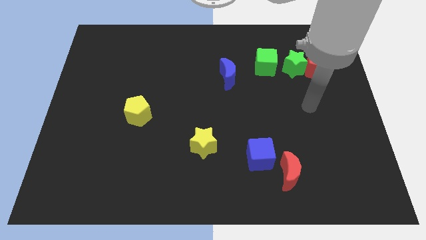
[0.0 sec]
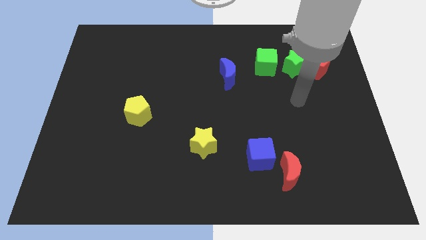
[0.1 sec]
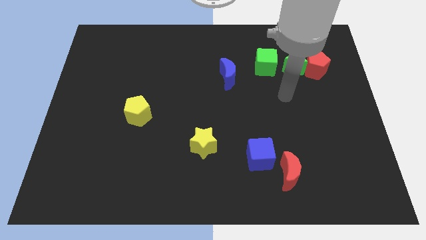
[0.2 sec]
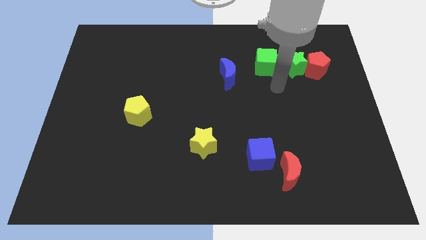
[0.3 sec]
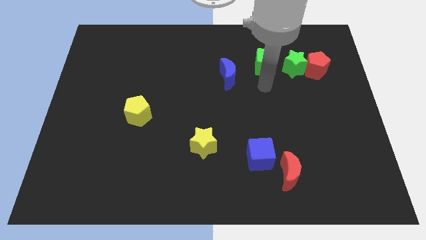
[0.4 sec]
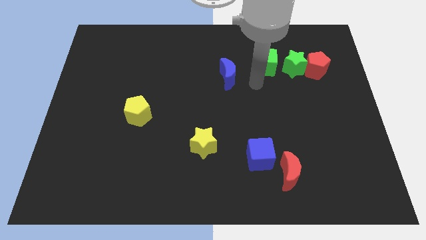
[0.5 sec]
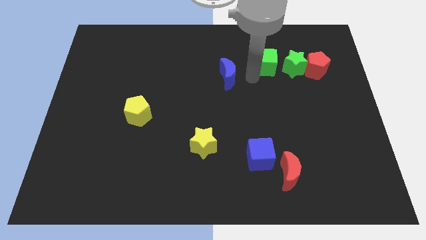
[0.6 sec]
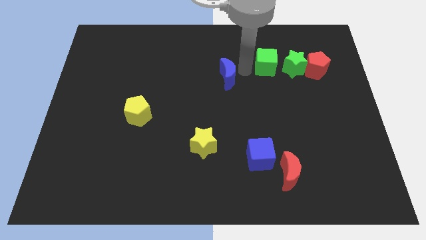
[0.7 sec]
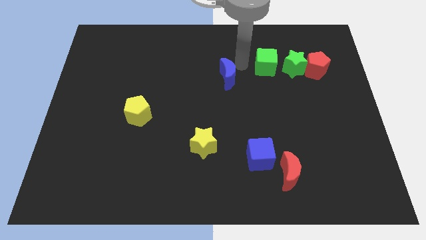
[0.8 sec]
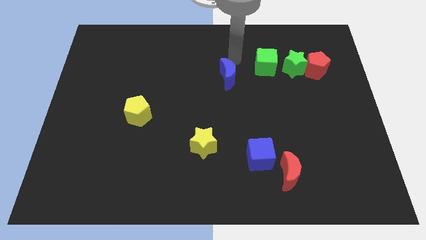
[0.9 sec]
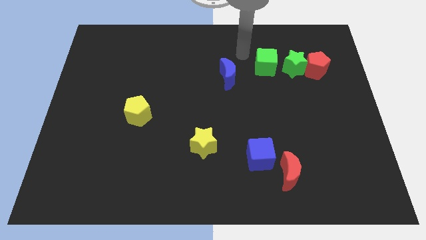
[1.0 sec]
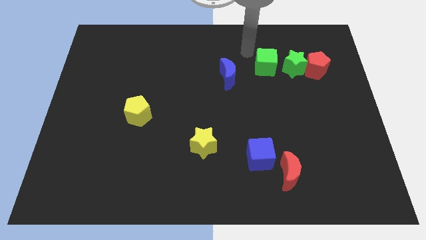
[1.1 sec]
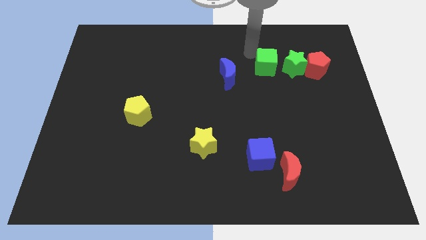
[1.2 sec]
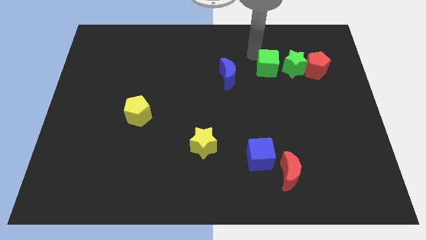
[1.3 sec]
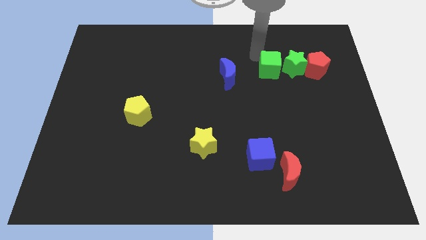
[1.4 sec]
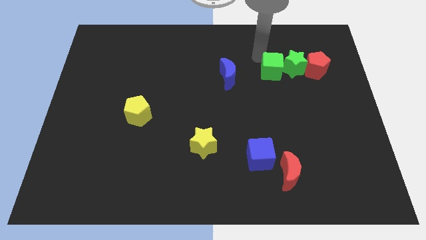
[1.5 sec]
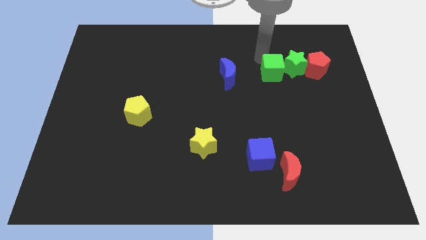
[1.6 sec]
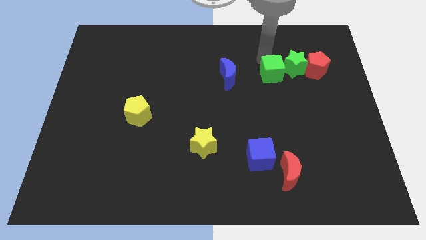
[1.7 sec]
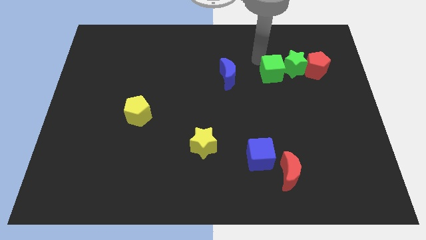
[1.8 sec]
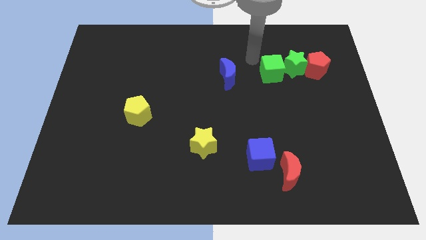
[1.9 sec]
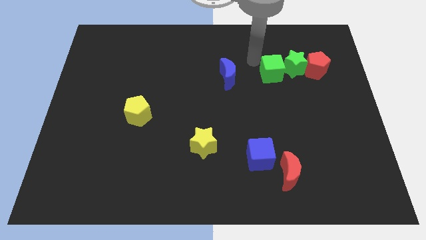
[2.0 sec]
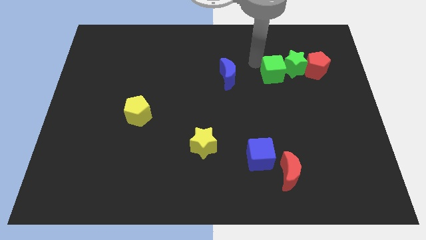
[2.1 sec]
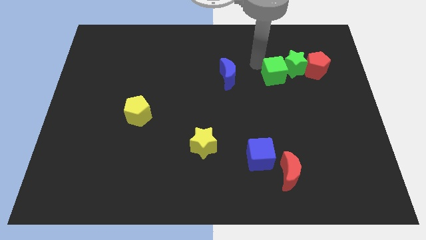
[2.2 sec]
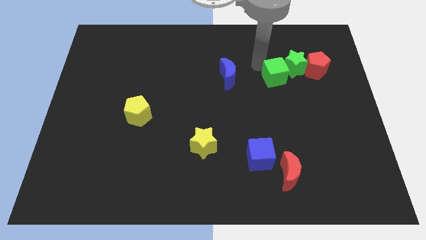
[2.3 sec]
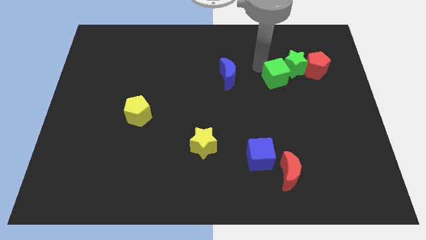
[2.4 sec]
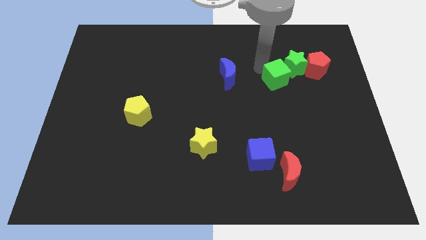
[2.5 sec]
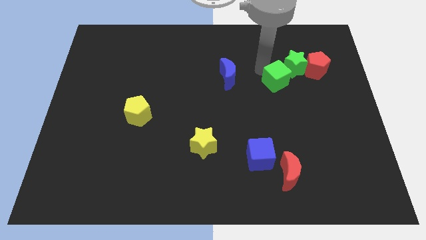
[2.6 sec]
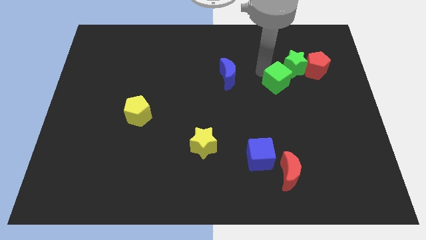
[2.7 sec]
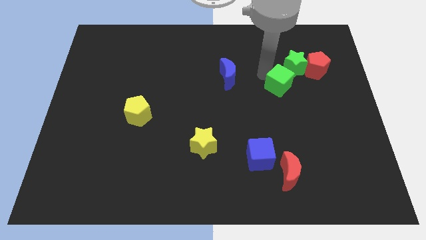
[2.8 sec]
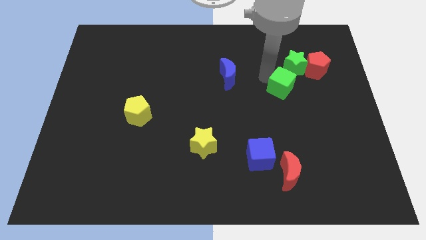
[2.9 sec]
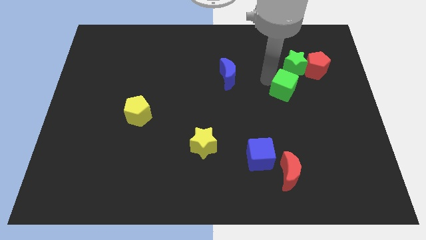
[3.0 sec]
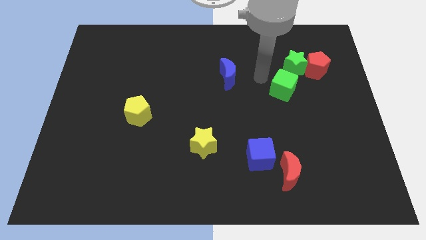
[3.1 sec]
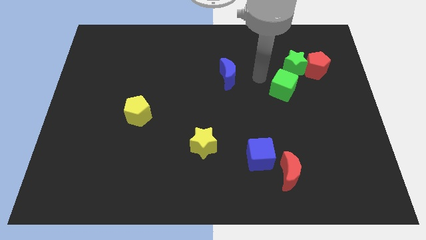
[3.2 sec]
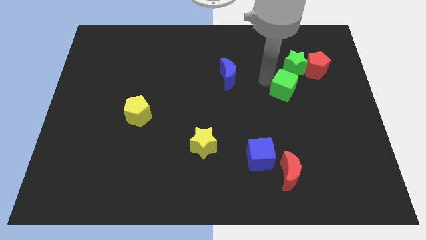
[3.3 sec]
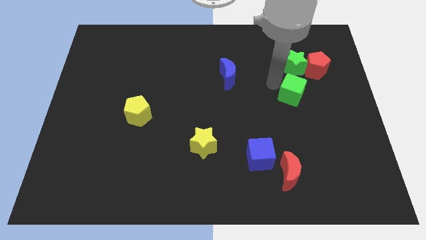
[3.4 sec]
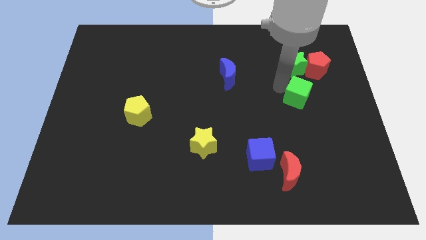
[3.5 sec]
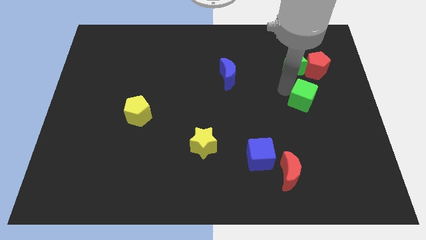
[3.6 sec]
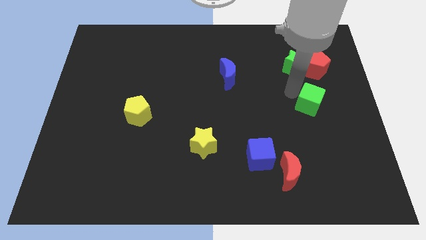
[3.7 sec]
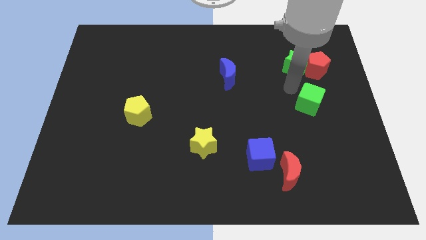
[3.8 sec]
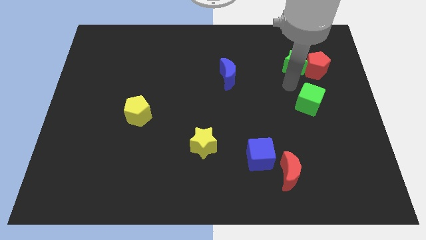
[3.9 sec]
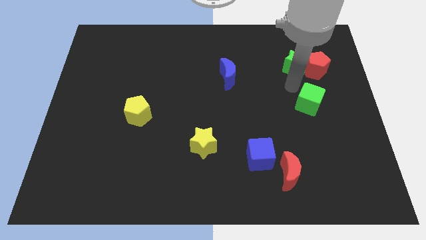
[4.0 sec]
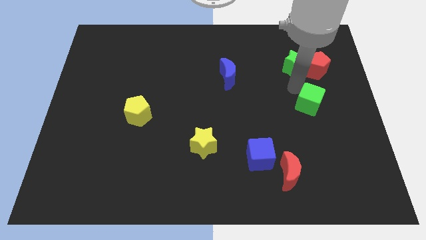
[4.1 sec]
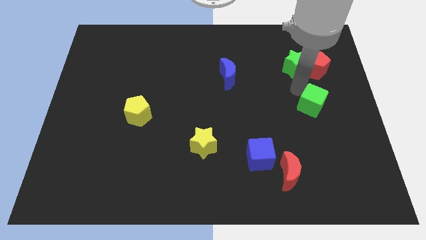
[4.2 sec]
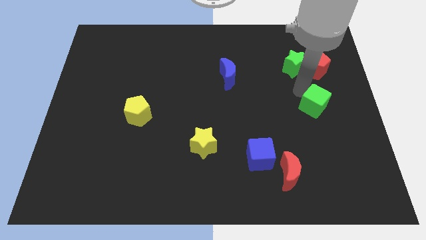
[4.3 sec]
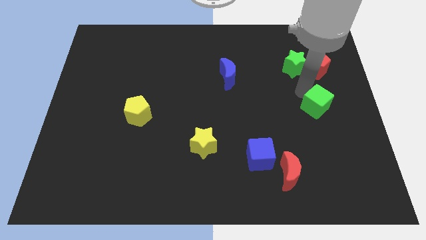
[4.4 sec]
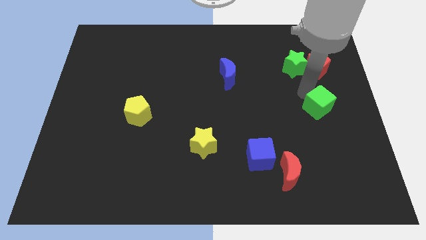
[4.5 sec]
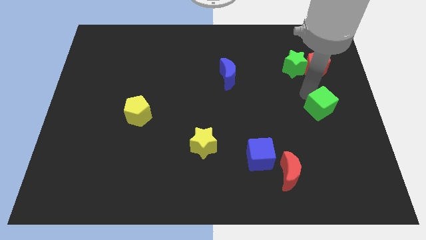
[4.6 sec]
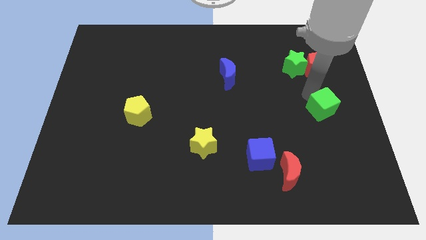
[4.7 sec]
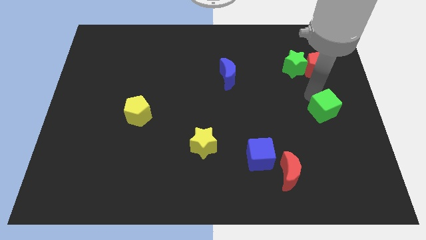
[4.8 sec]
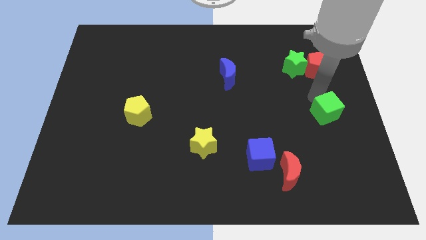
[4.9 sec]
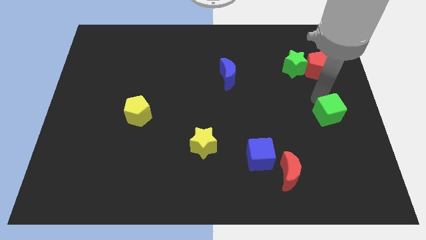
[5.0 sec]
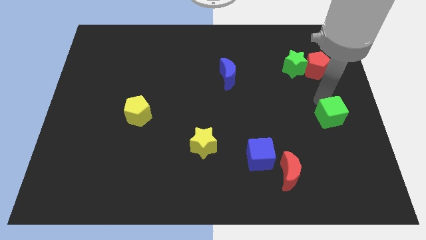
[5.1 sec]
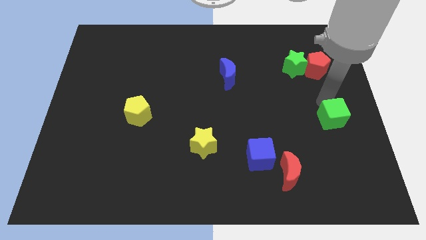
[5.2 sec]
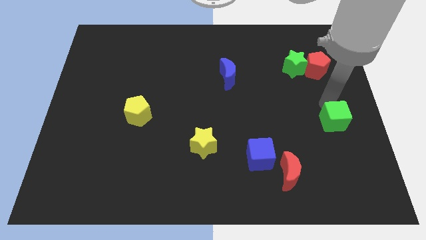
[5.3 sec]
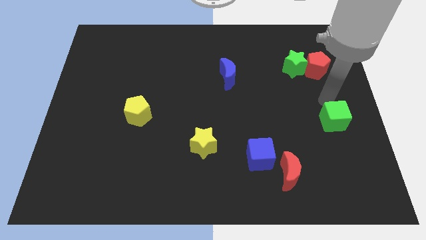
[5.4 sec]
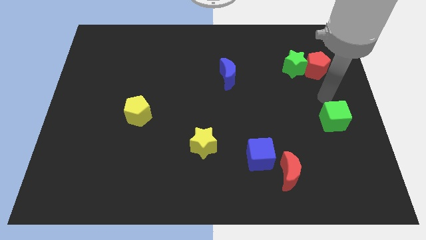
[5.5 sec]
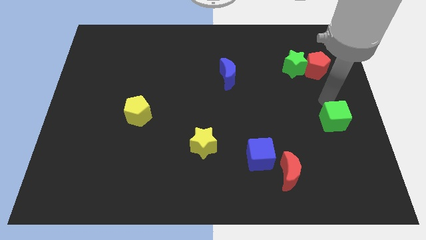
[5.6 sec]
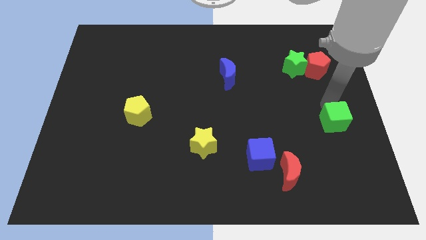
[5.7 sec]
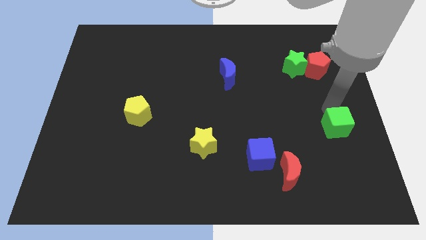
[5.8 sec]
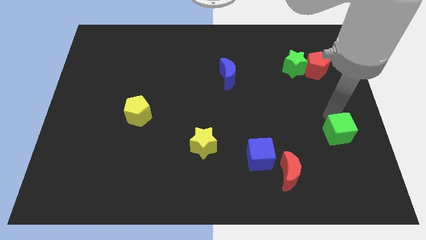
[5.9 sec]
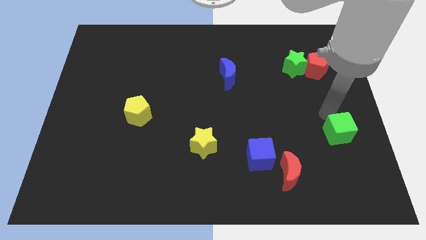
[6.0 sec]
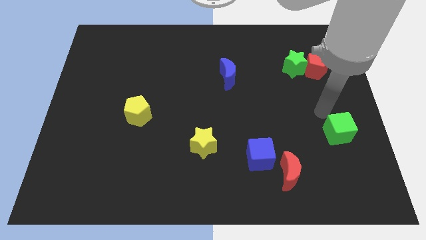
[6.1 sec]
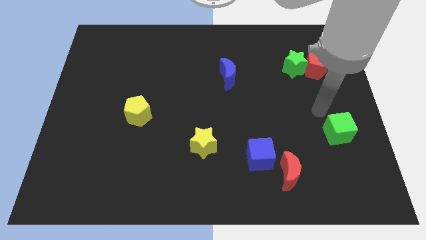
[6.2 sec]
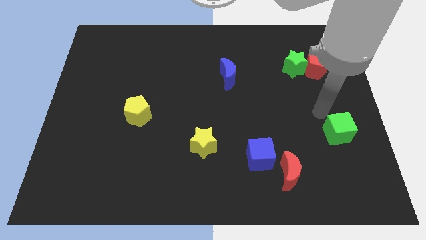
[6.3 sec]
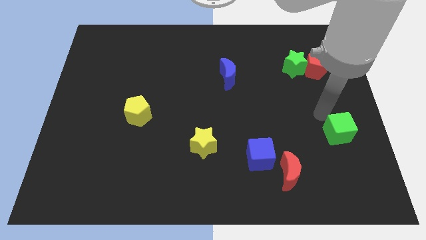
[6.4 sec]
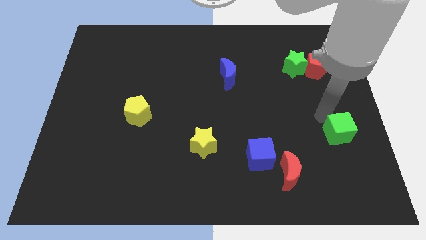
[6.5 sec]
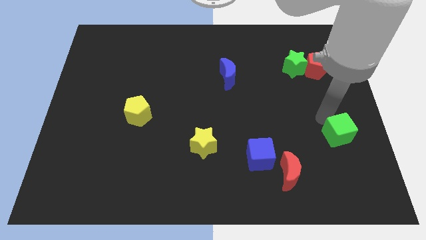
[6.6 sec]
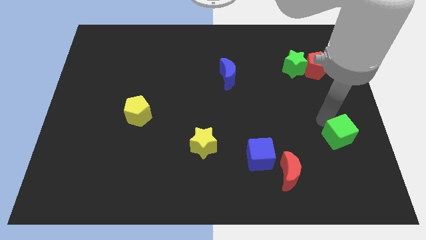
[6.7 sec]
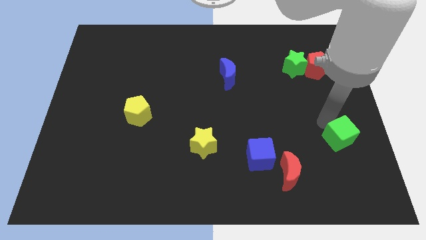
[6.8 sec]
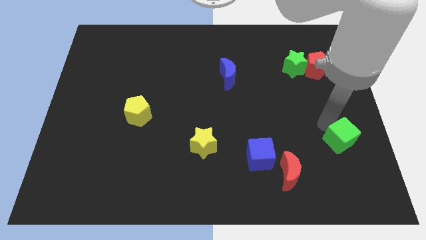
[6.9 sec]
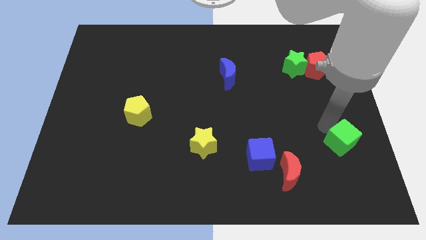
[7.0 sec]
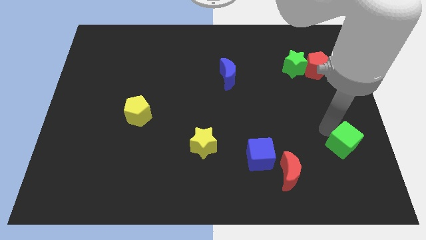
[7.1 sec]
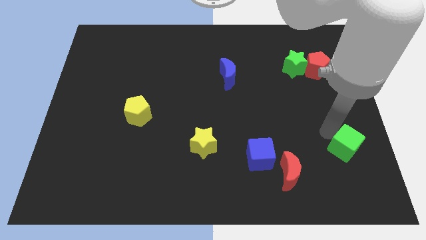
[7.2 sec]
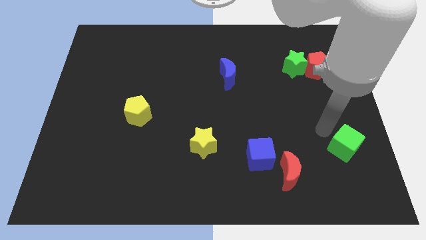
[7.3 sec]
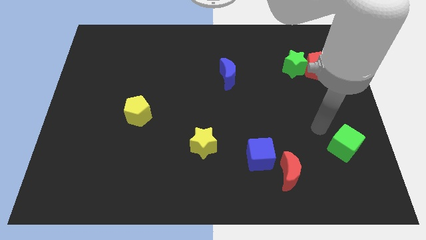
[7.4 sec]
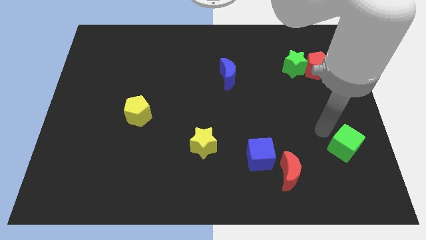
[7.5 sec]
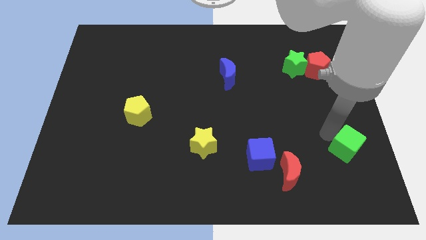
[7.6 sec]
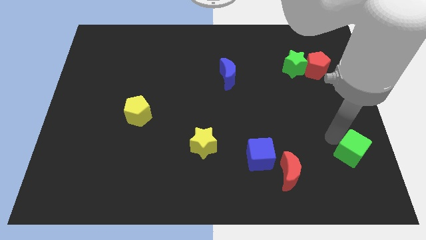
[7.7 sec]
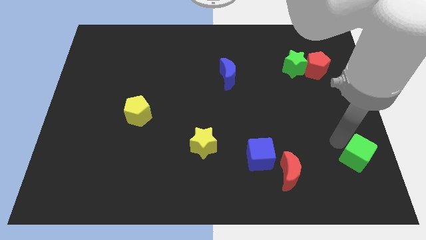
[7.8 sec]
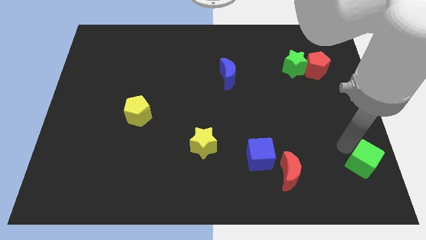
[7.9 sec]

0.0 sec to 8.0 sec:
put the green cube to the bottom right corner
